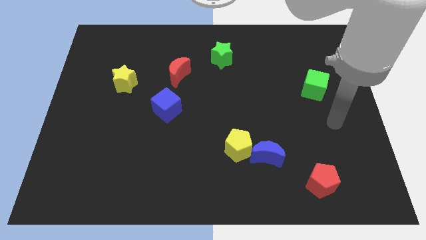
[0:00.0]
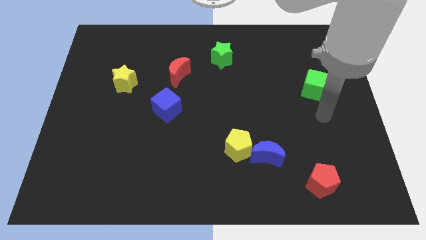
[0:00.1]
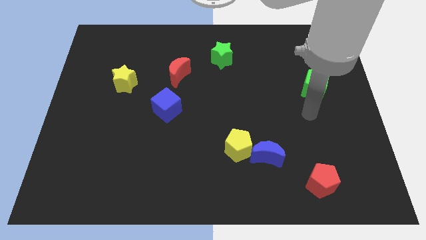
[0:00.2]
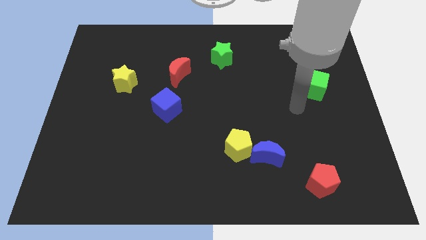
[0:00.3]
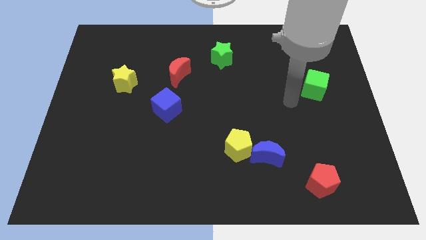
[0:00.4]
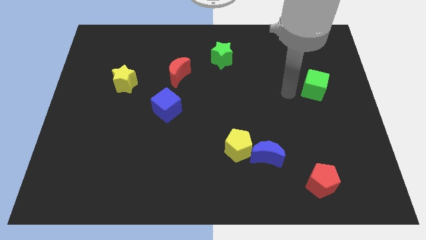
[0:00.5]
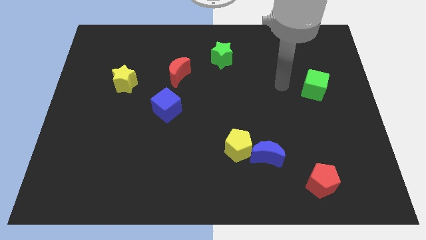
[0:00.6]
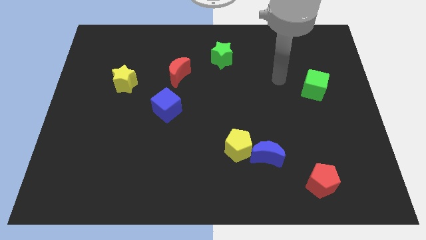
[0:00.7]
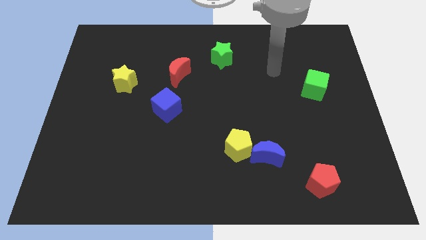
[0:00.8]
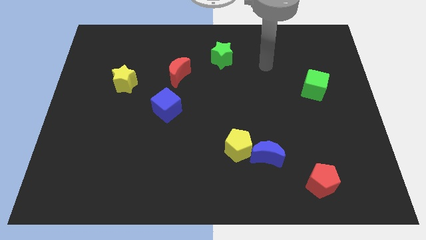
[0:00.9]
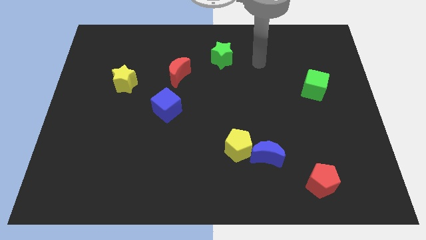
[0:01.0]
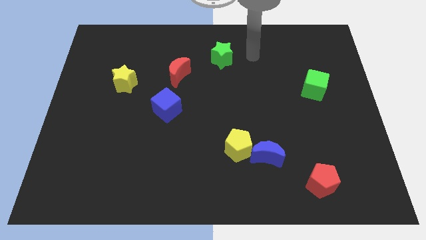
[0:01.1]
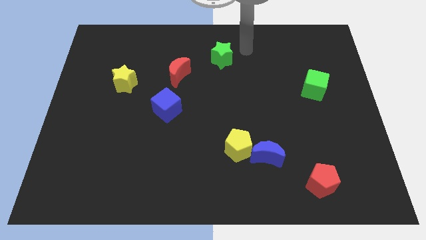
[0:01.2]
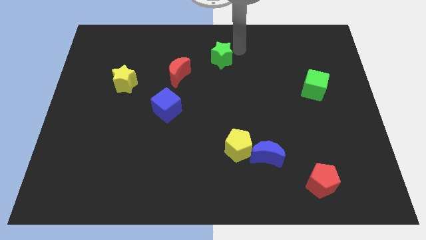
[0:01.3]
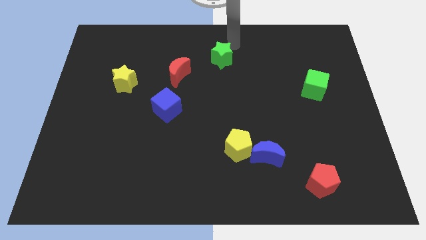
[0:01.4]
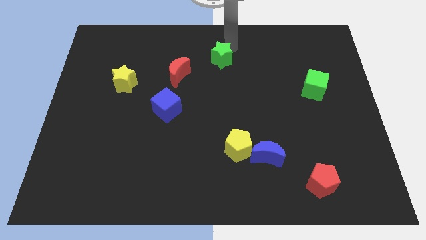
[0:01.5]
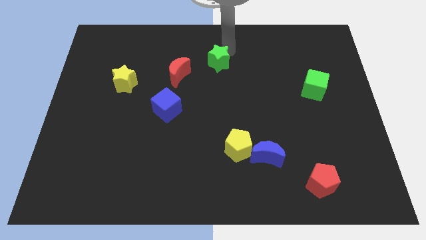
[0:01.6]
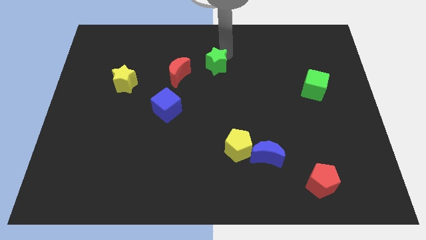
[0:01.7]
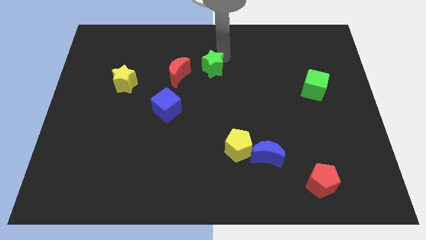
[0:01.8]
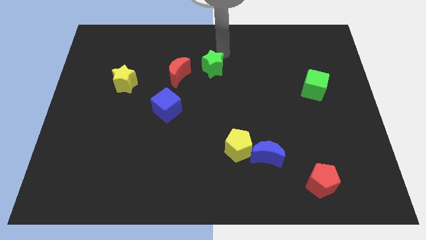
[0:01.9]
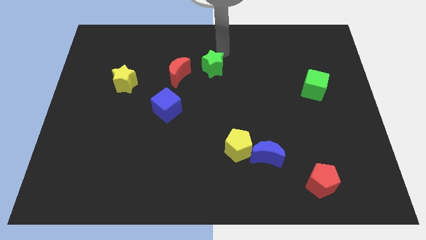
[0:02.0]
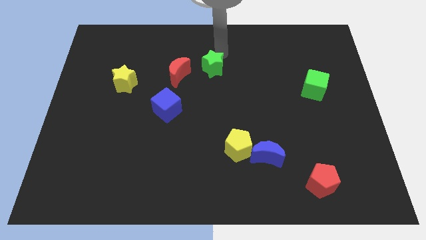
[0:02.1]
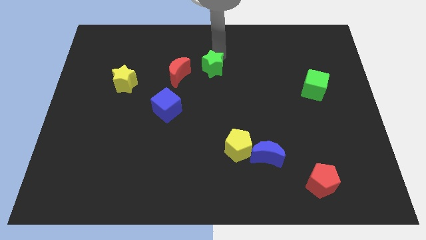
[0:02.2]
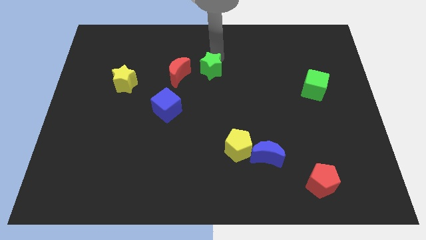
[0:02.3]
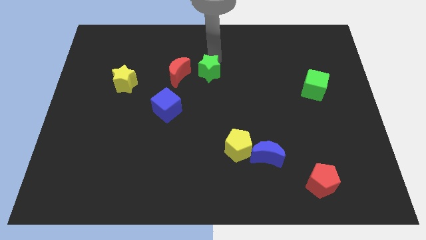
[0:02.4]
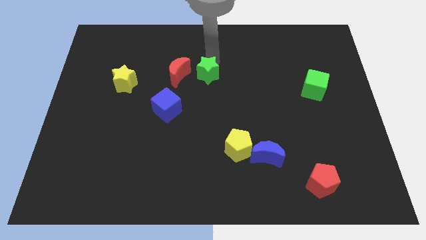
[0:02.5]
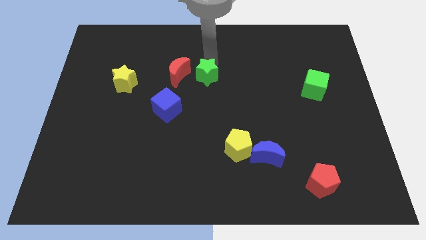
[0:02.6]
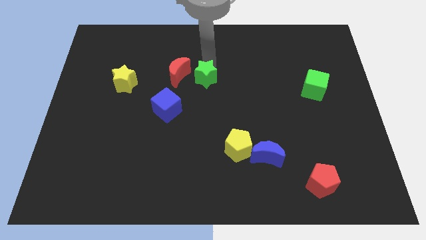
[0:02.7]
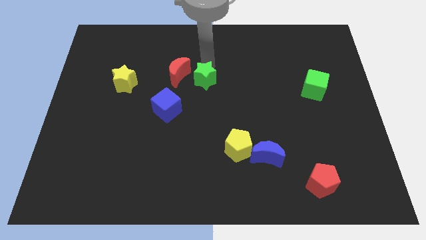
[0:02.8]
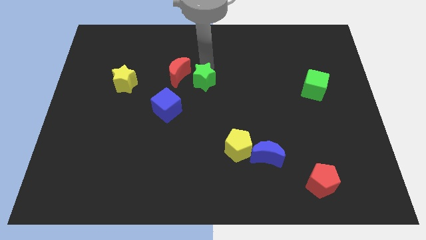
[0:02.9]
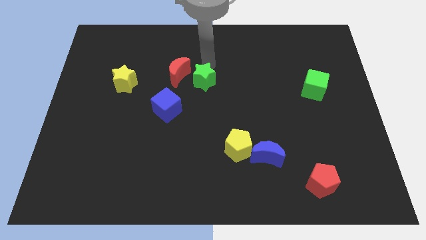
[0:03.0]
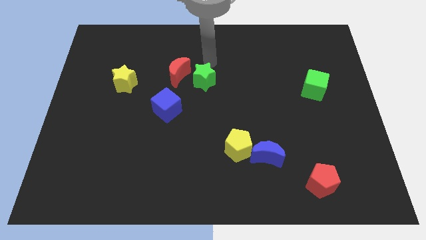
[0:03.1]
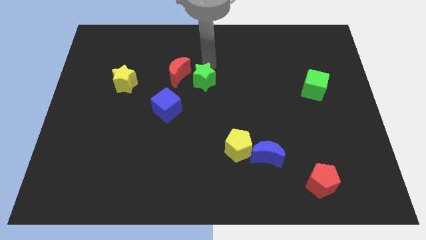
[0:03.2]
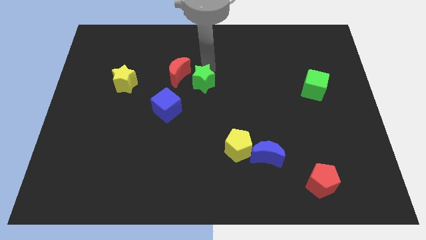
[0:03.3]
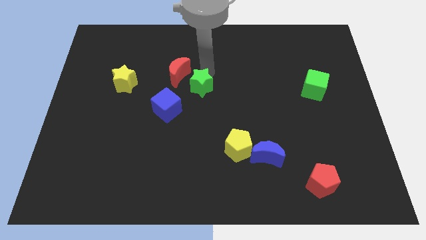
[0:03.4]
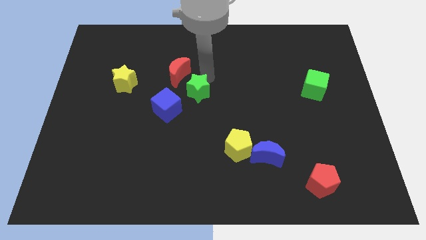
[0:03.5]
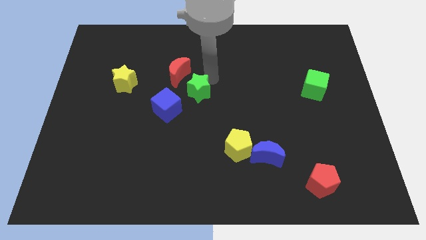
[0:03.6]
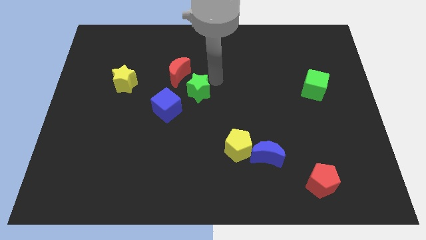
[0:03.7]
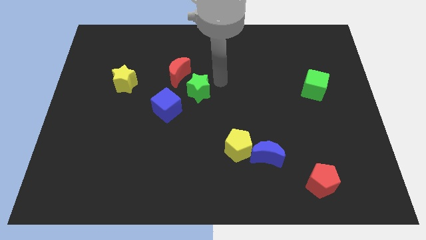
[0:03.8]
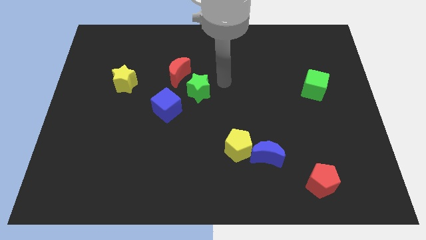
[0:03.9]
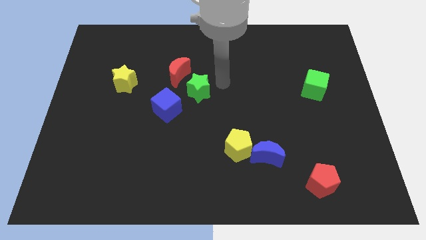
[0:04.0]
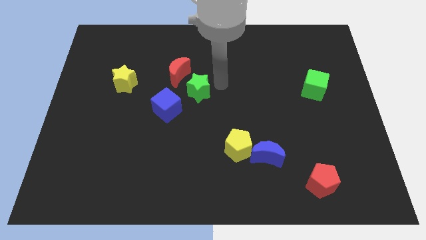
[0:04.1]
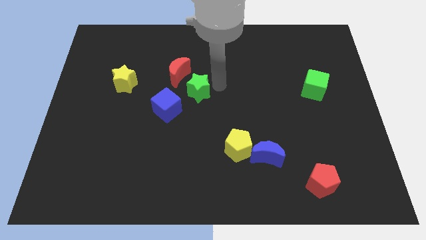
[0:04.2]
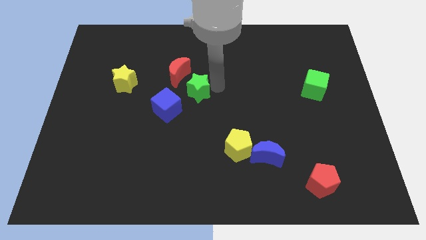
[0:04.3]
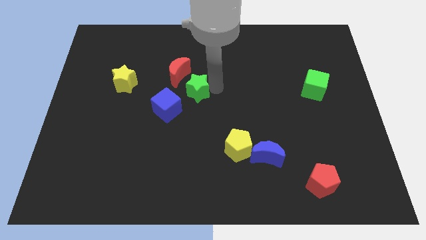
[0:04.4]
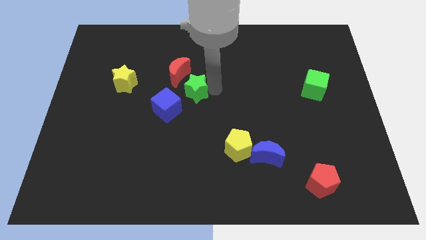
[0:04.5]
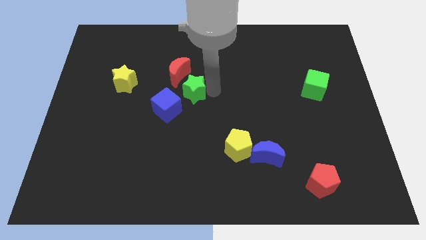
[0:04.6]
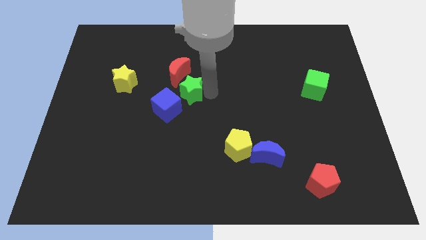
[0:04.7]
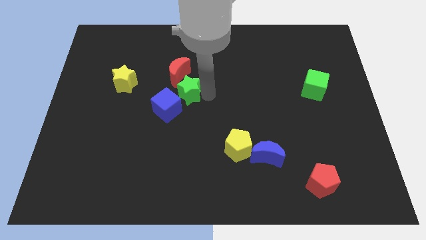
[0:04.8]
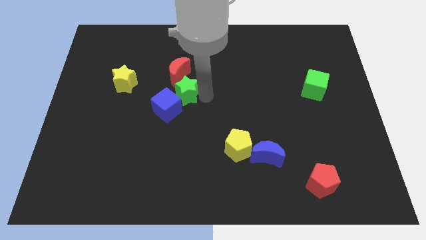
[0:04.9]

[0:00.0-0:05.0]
slide the green star next to the blue cube

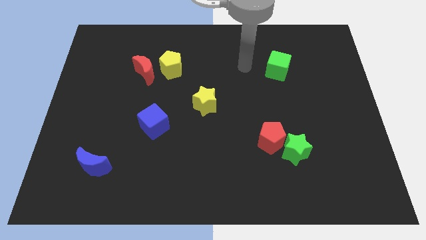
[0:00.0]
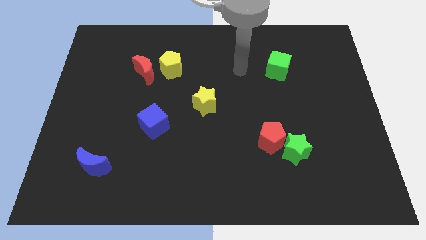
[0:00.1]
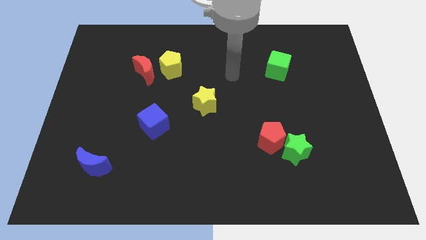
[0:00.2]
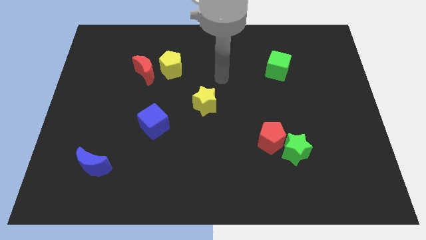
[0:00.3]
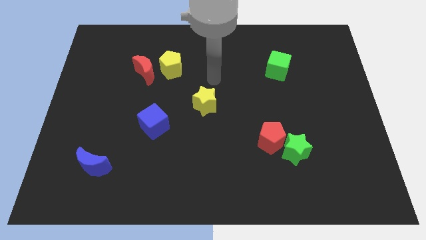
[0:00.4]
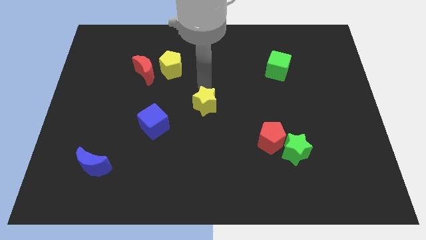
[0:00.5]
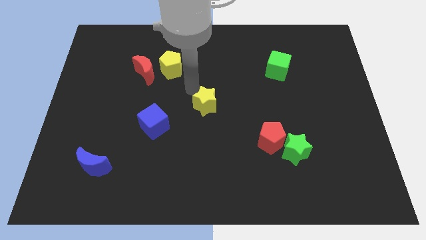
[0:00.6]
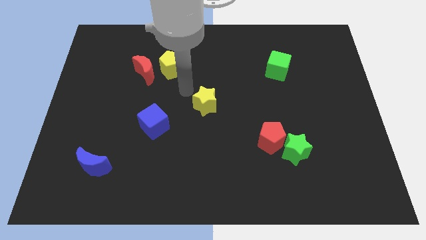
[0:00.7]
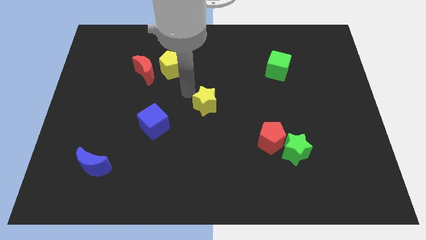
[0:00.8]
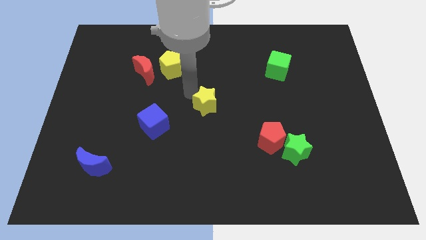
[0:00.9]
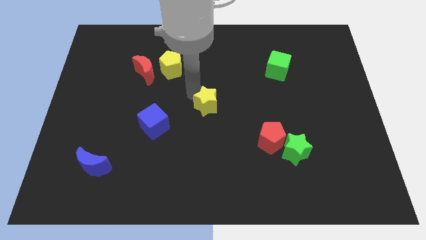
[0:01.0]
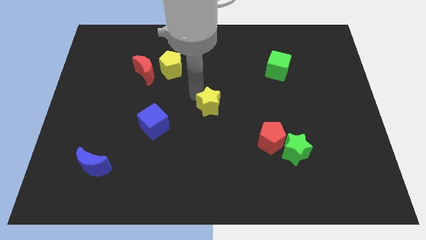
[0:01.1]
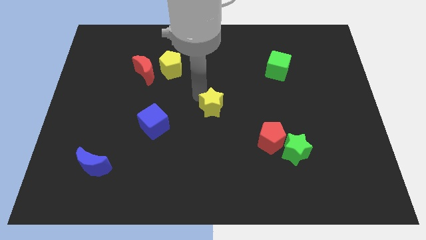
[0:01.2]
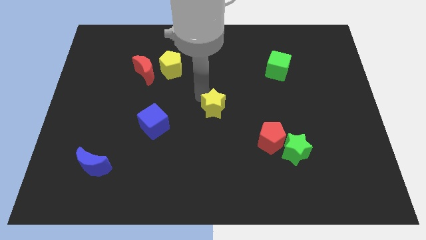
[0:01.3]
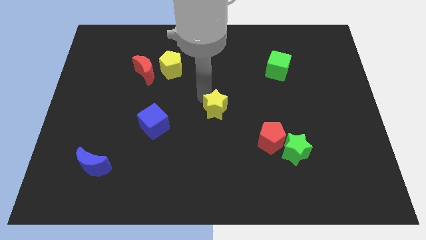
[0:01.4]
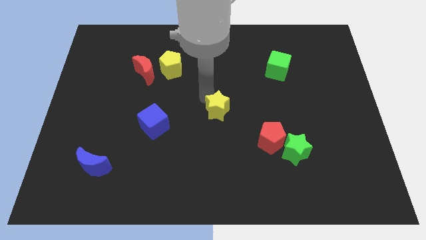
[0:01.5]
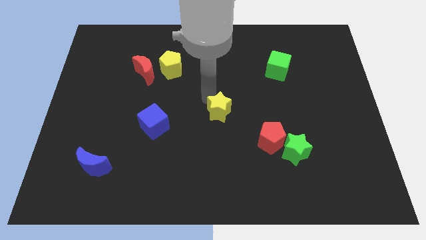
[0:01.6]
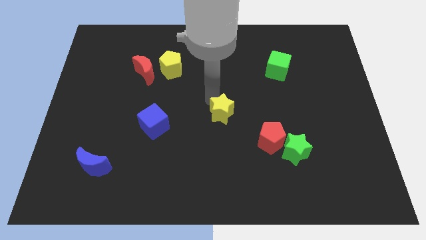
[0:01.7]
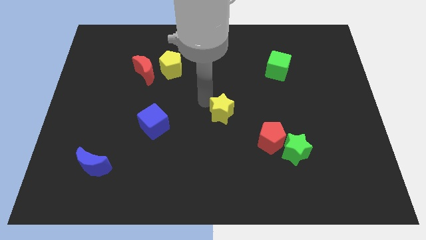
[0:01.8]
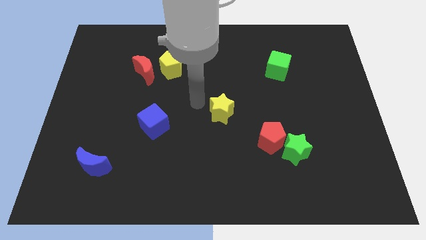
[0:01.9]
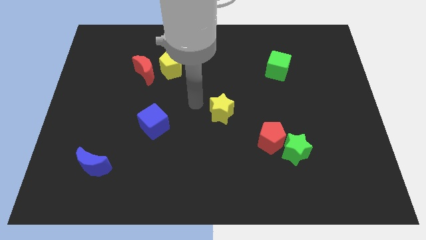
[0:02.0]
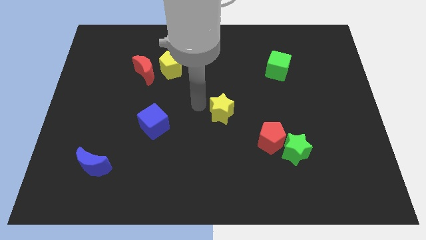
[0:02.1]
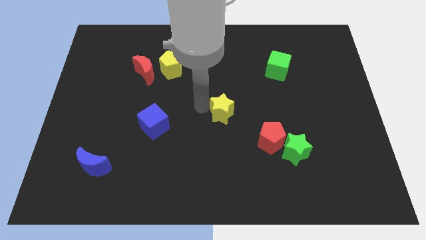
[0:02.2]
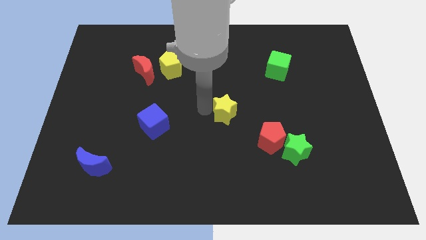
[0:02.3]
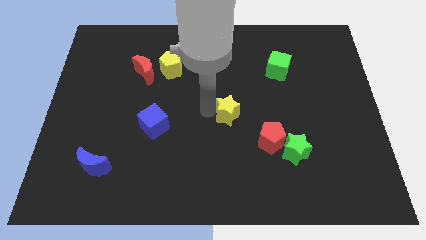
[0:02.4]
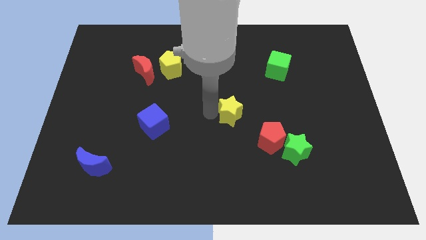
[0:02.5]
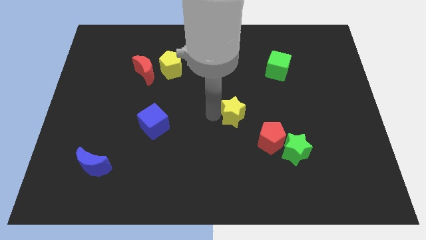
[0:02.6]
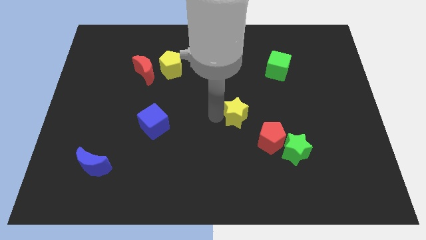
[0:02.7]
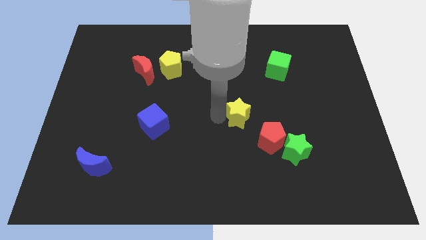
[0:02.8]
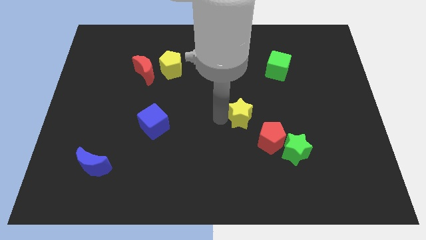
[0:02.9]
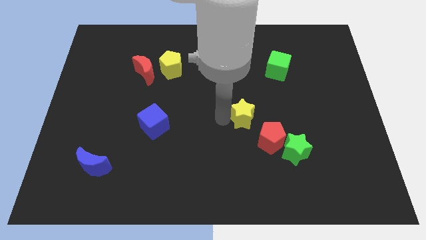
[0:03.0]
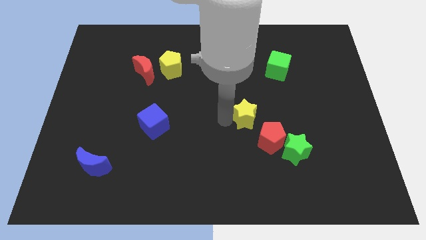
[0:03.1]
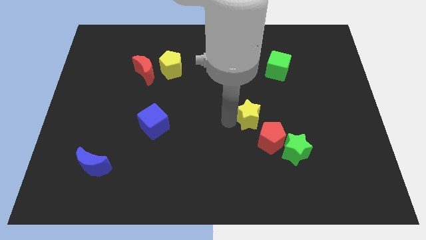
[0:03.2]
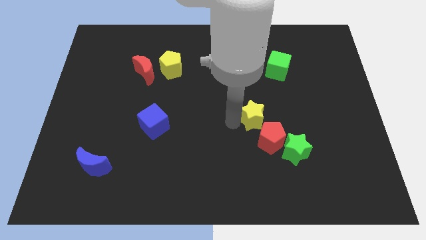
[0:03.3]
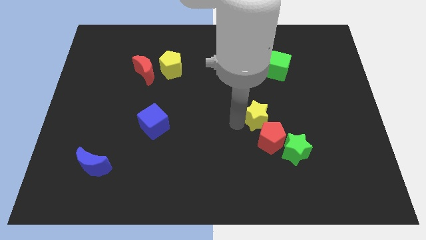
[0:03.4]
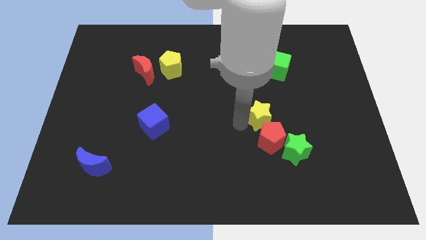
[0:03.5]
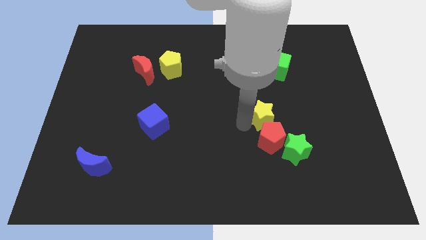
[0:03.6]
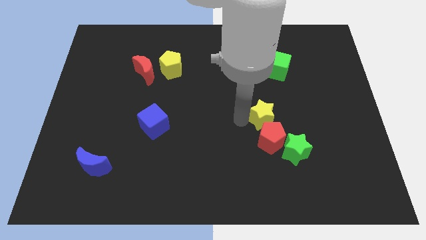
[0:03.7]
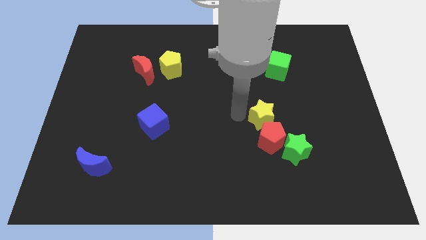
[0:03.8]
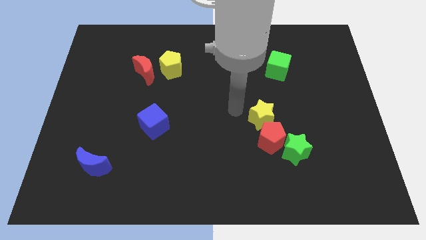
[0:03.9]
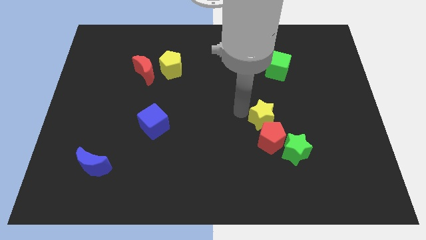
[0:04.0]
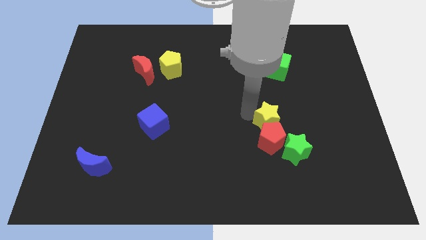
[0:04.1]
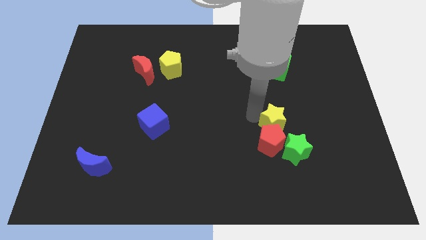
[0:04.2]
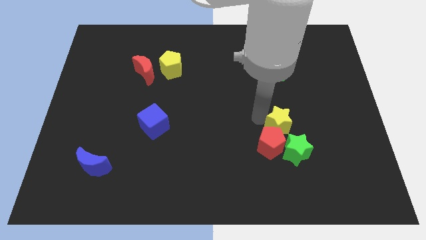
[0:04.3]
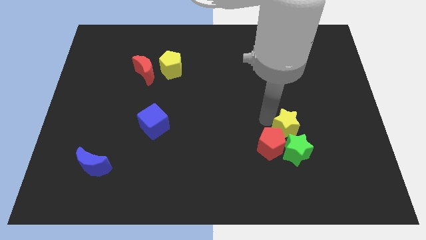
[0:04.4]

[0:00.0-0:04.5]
push the yellow star towards the green star
